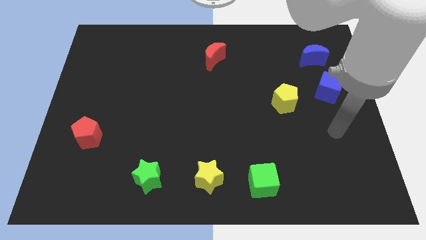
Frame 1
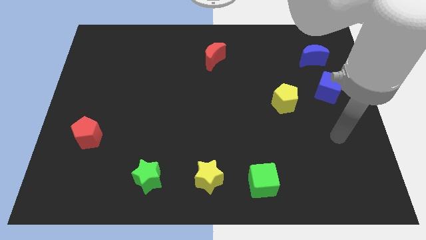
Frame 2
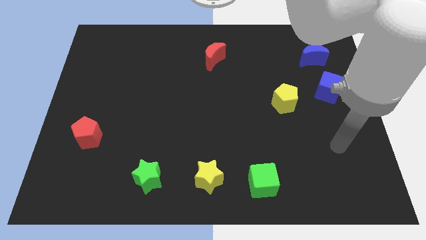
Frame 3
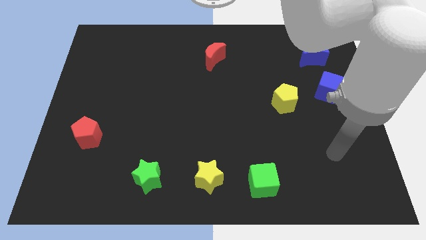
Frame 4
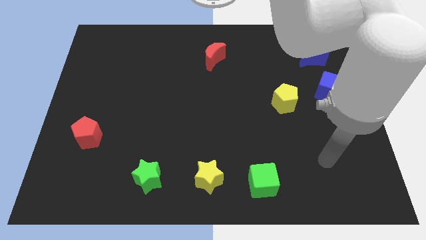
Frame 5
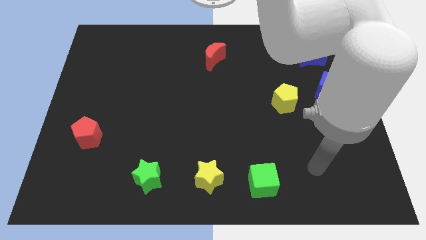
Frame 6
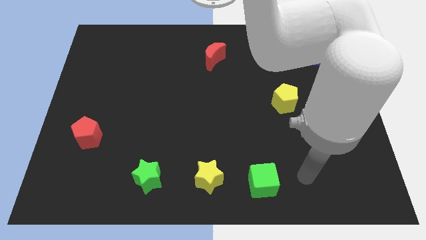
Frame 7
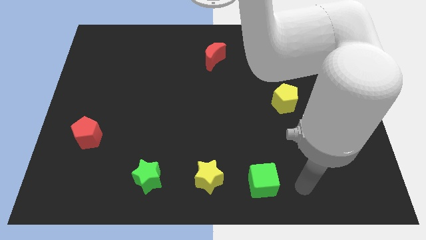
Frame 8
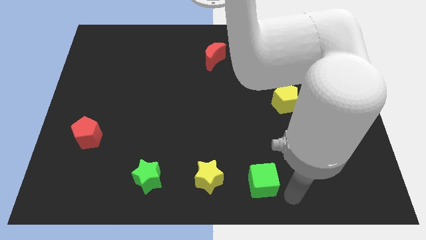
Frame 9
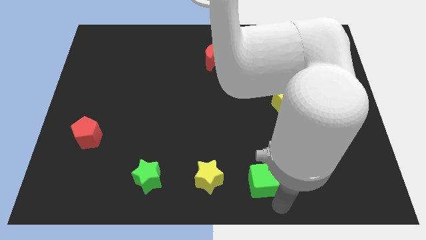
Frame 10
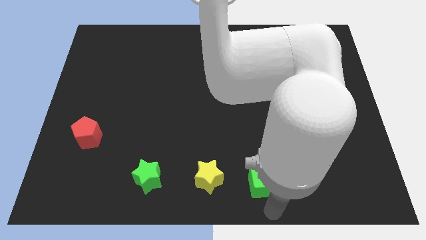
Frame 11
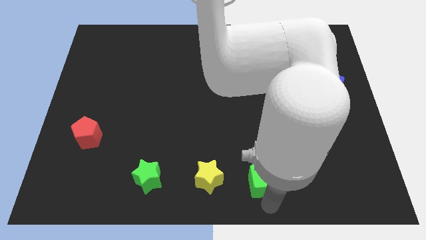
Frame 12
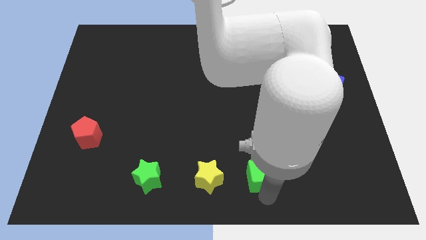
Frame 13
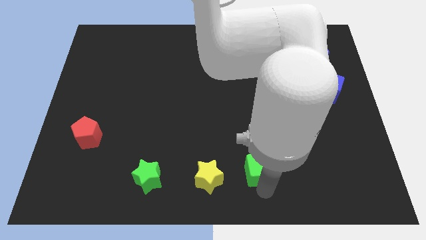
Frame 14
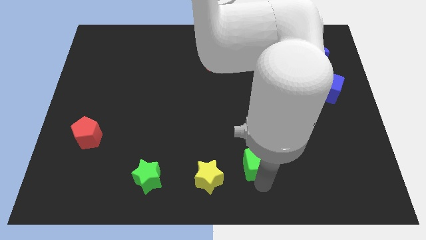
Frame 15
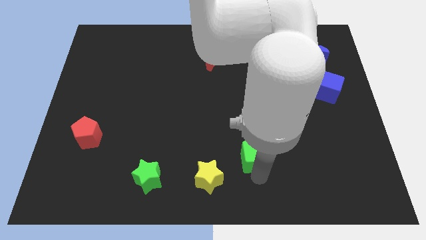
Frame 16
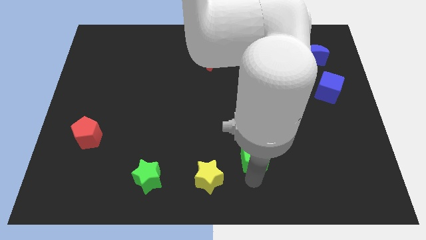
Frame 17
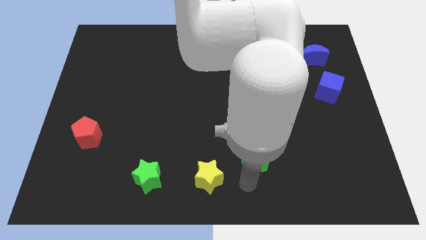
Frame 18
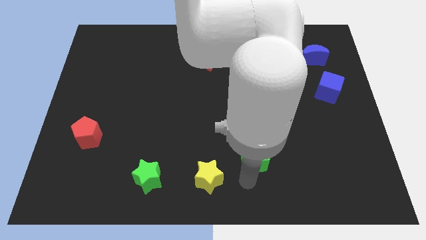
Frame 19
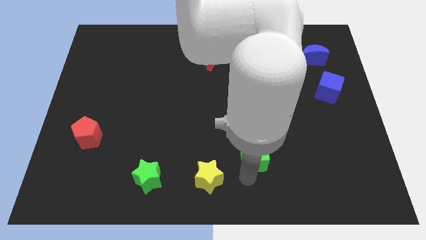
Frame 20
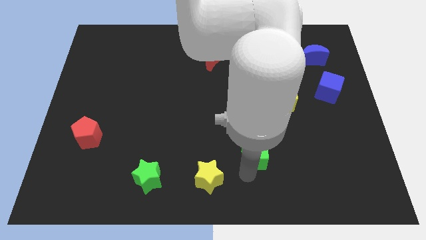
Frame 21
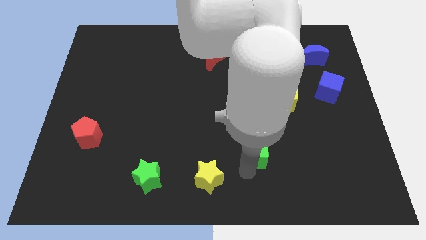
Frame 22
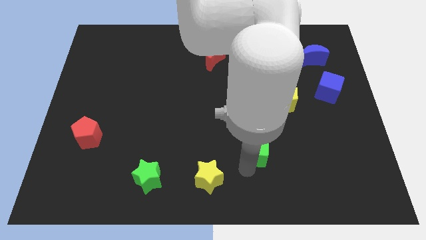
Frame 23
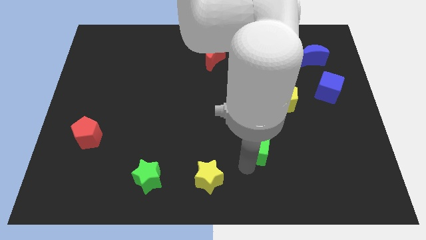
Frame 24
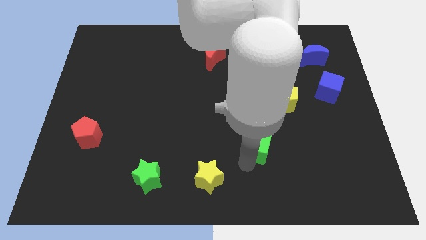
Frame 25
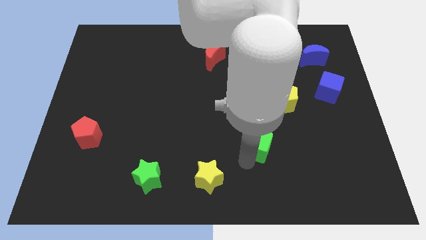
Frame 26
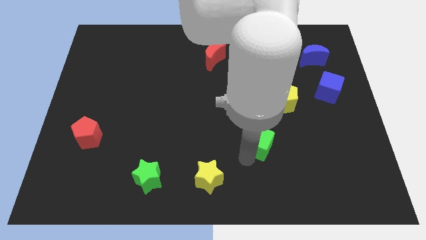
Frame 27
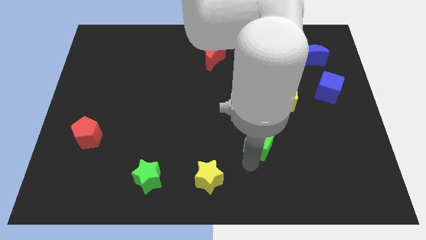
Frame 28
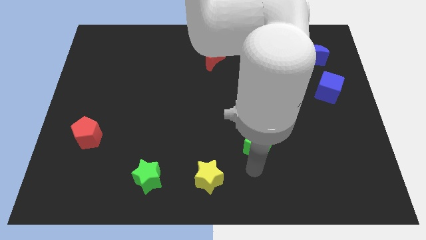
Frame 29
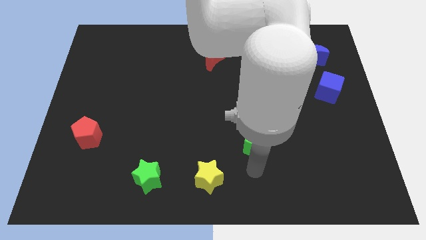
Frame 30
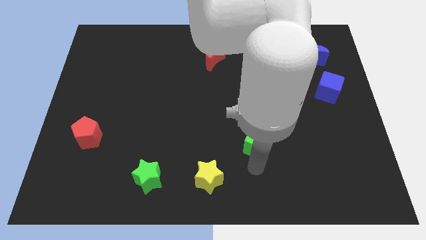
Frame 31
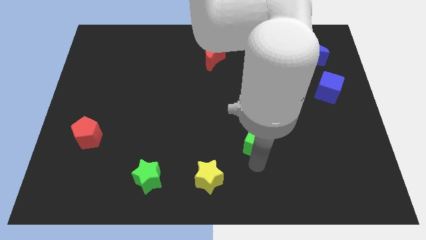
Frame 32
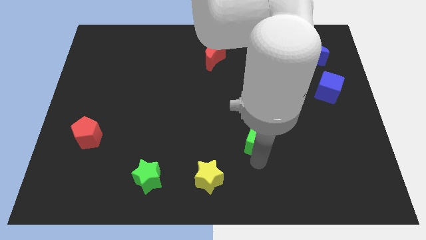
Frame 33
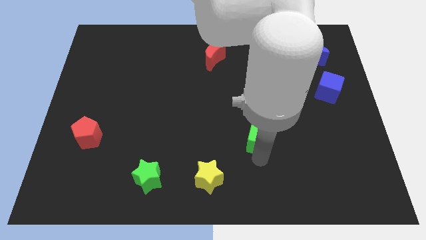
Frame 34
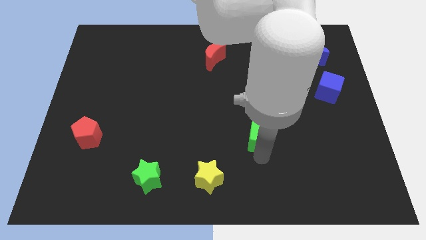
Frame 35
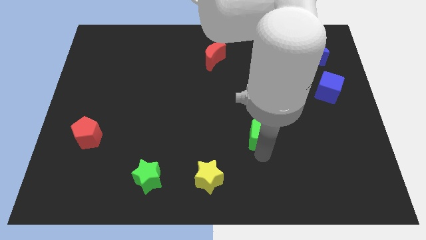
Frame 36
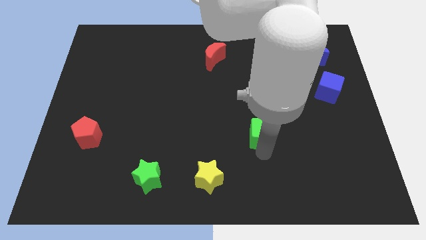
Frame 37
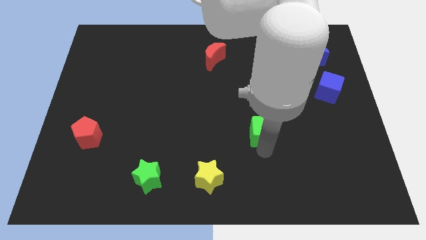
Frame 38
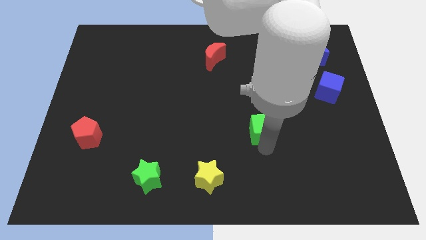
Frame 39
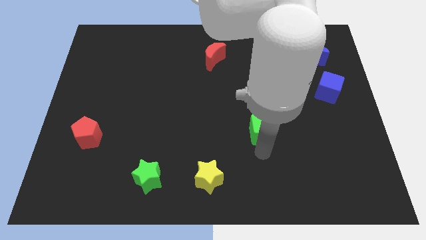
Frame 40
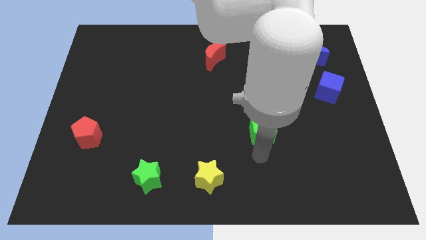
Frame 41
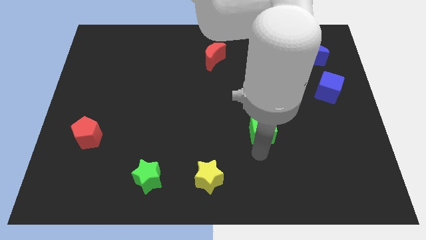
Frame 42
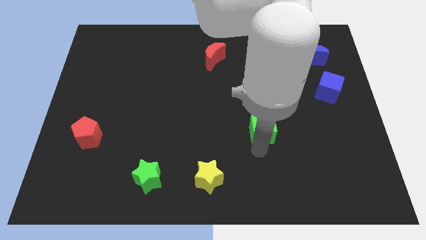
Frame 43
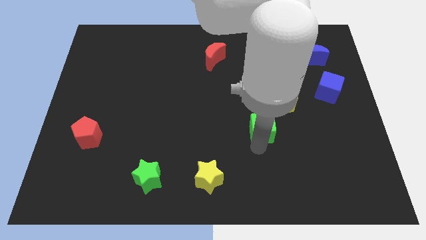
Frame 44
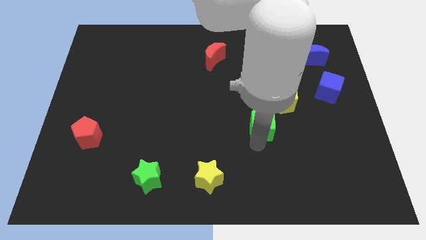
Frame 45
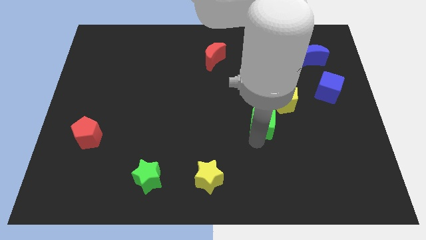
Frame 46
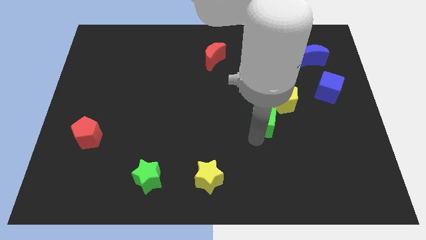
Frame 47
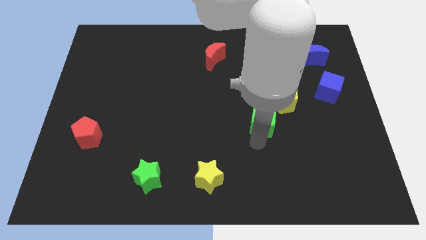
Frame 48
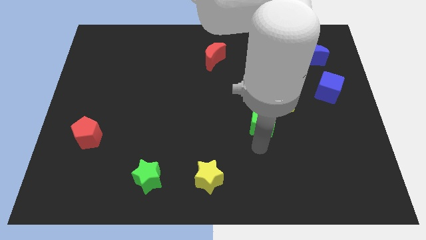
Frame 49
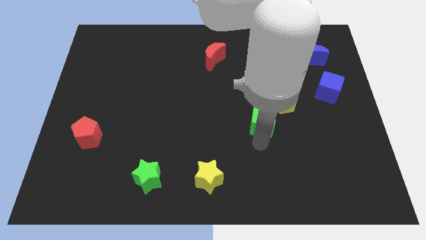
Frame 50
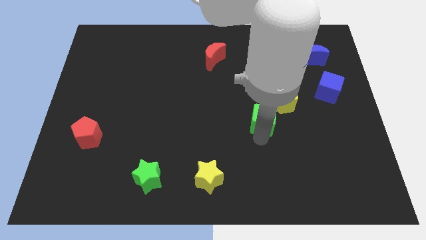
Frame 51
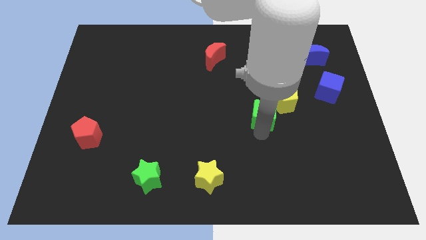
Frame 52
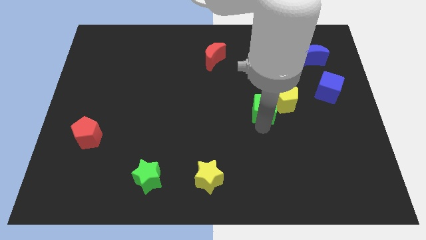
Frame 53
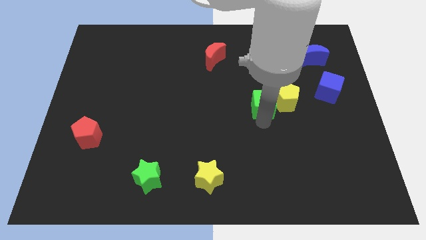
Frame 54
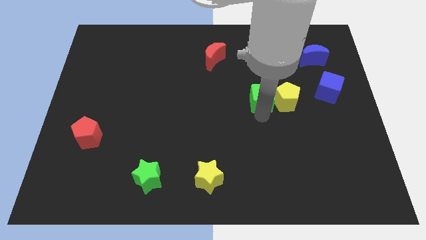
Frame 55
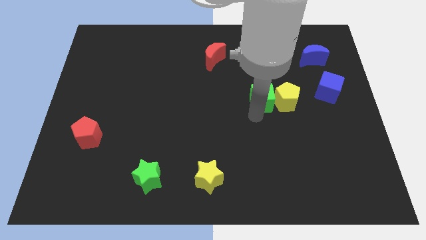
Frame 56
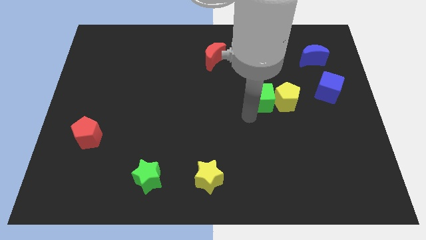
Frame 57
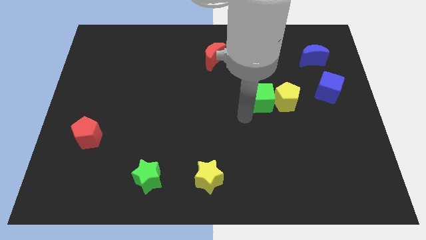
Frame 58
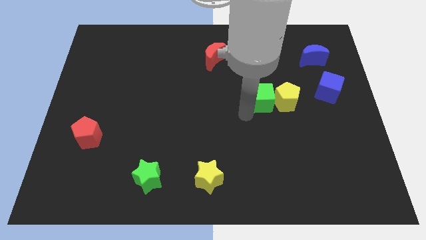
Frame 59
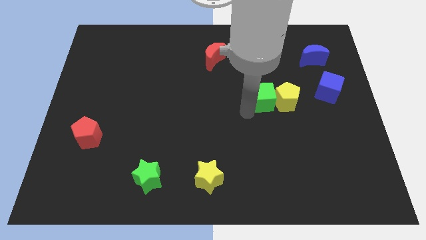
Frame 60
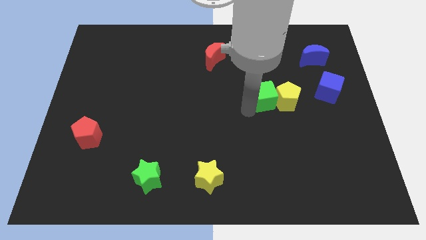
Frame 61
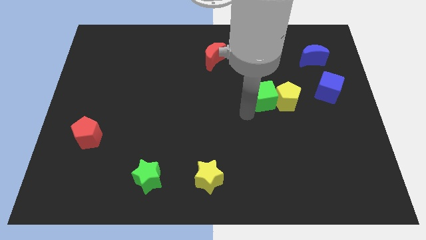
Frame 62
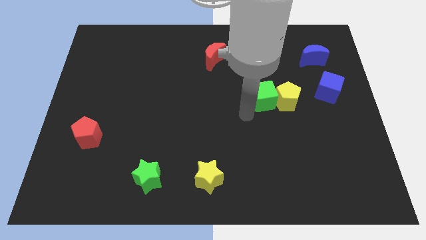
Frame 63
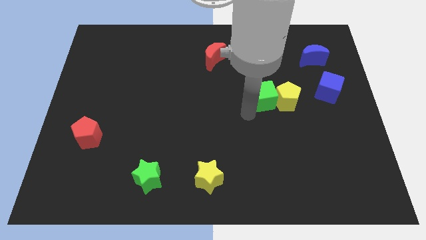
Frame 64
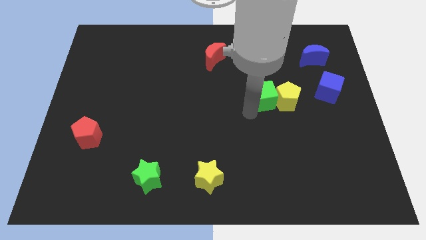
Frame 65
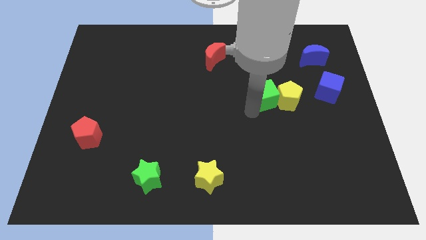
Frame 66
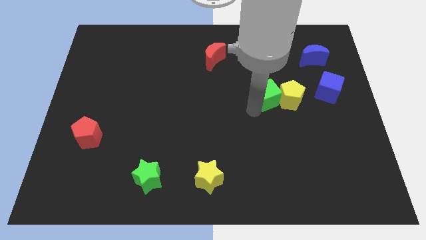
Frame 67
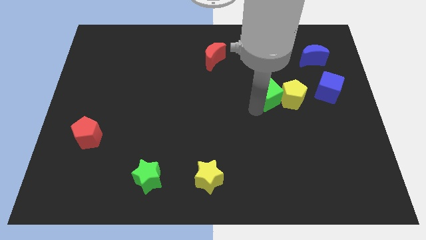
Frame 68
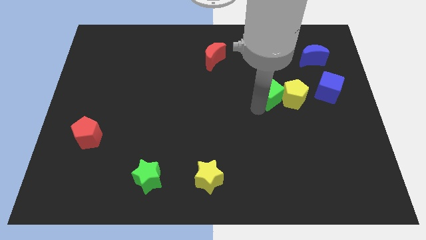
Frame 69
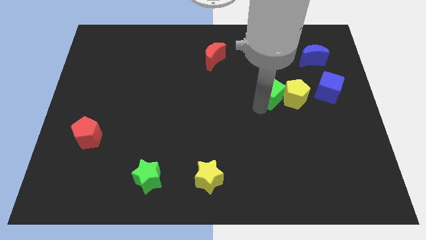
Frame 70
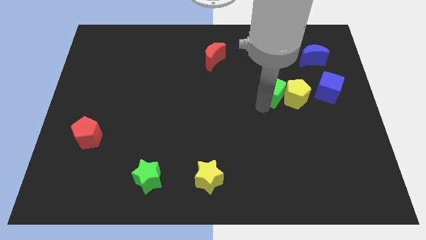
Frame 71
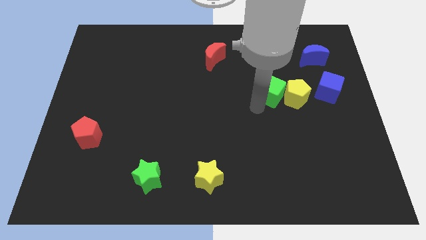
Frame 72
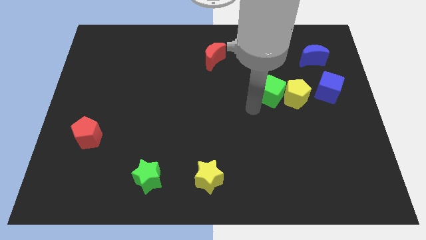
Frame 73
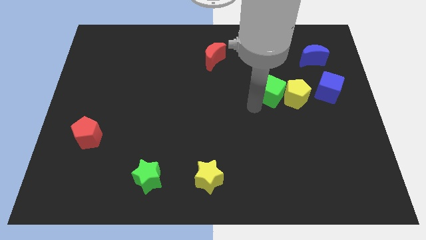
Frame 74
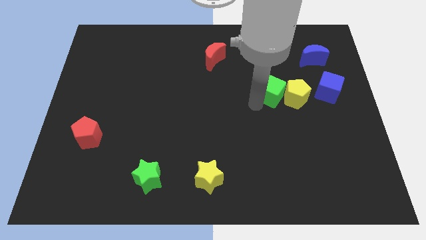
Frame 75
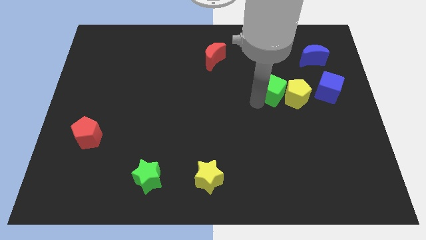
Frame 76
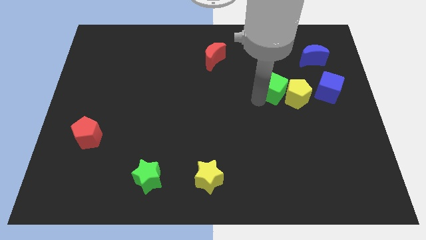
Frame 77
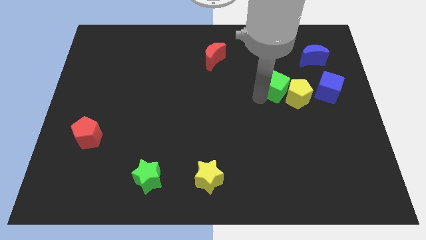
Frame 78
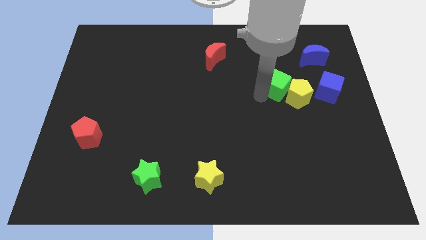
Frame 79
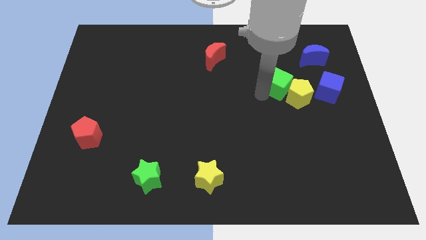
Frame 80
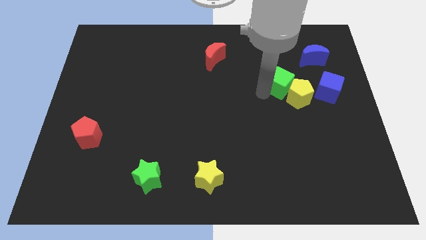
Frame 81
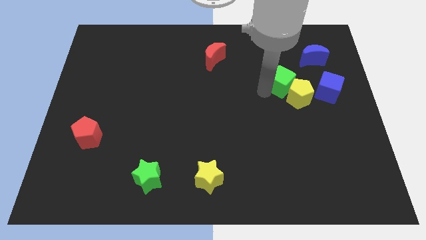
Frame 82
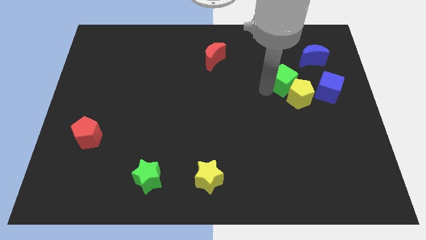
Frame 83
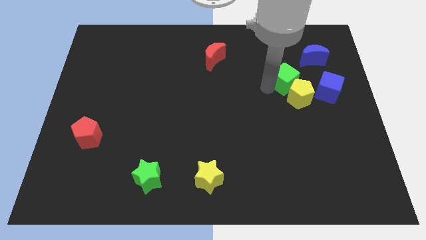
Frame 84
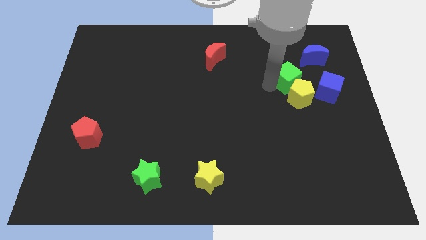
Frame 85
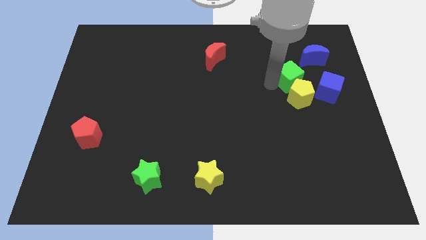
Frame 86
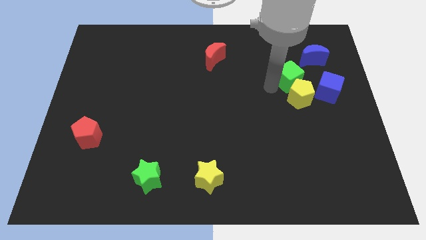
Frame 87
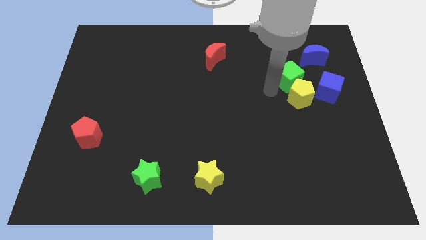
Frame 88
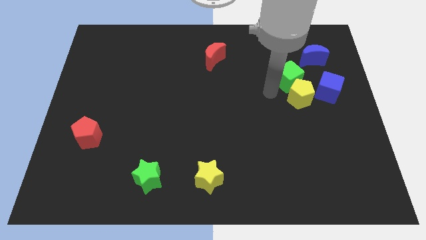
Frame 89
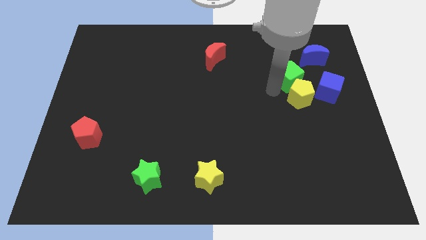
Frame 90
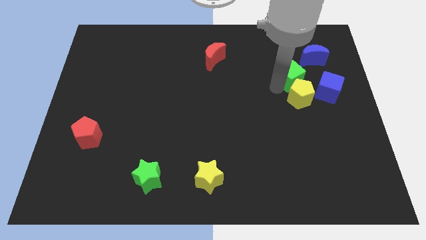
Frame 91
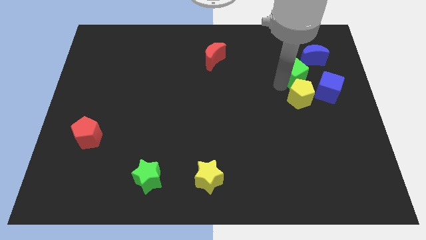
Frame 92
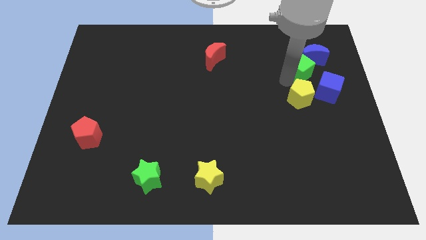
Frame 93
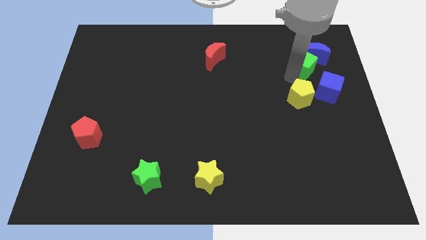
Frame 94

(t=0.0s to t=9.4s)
slide the green cube close to the blue moon
